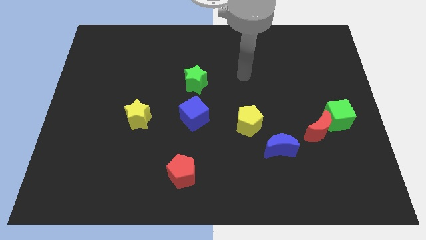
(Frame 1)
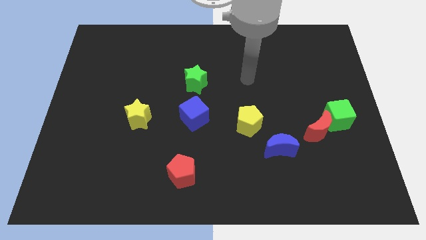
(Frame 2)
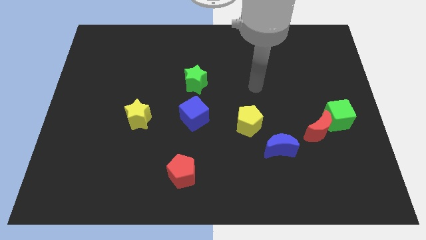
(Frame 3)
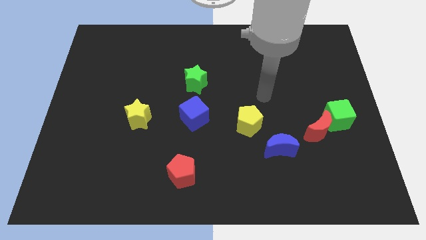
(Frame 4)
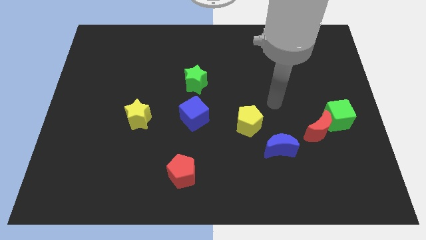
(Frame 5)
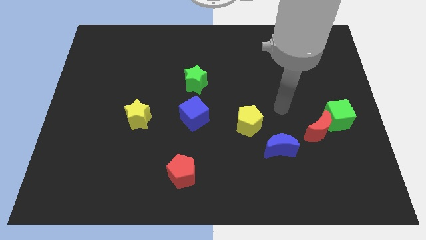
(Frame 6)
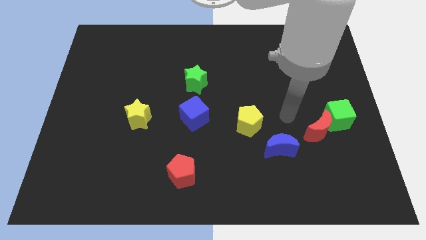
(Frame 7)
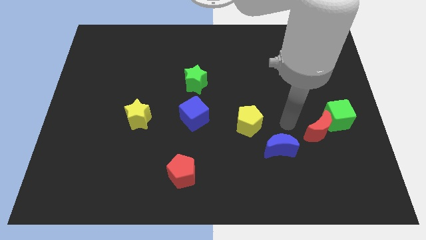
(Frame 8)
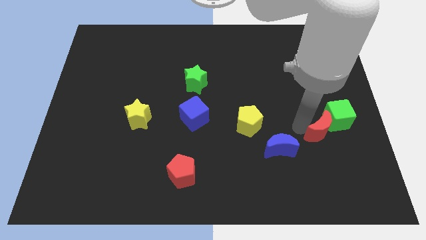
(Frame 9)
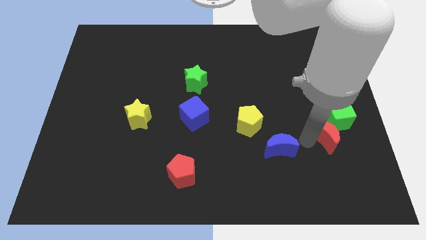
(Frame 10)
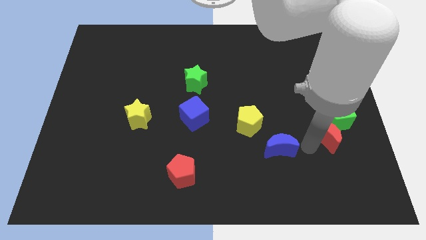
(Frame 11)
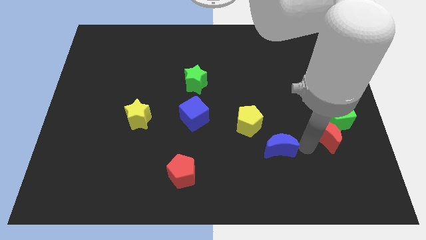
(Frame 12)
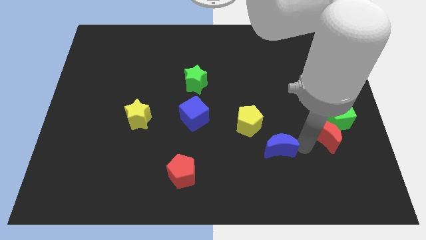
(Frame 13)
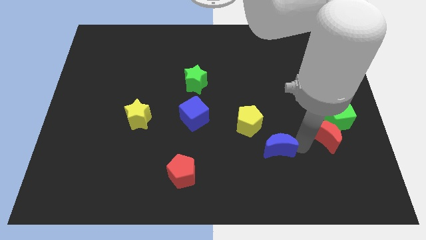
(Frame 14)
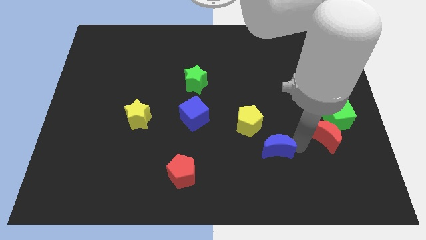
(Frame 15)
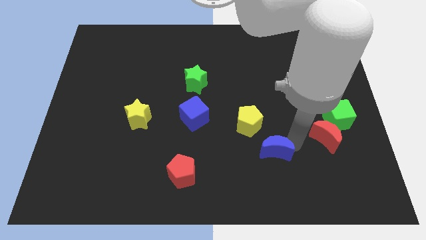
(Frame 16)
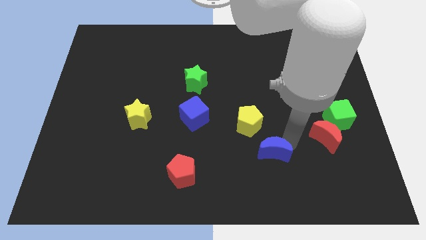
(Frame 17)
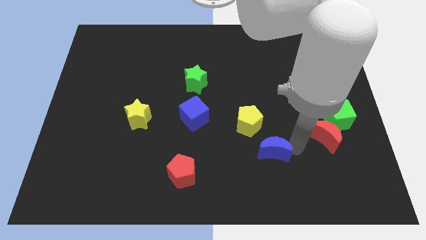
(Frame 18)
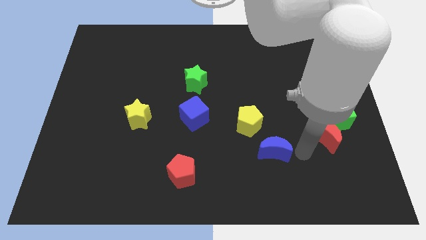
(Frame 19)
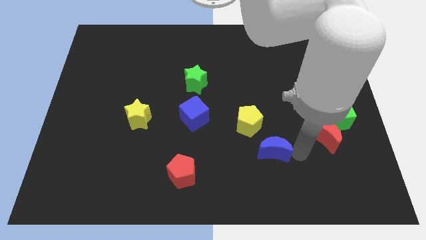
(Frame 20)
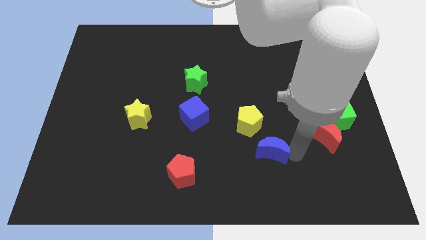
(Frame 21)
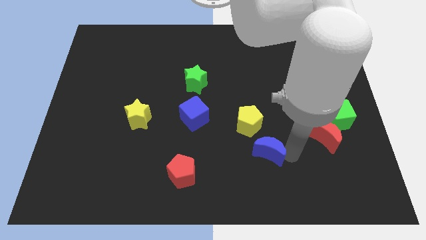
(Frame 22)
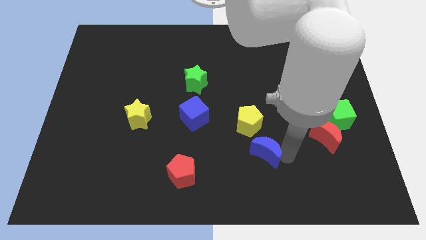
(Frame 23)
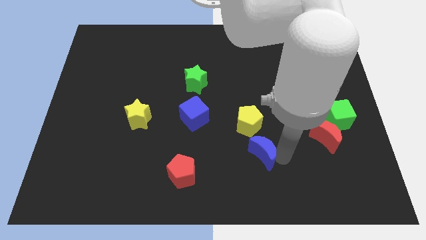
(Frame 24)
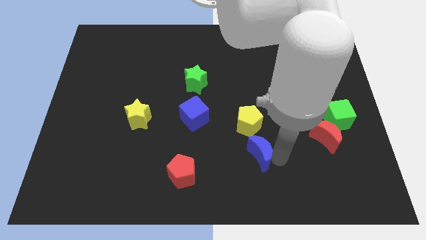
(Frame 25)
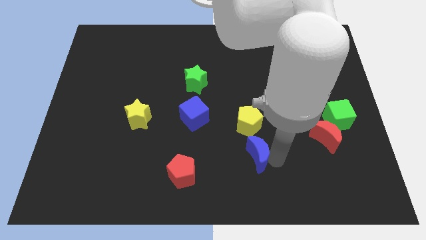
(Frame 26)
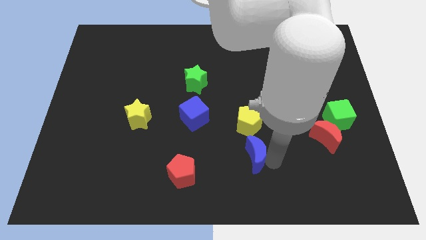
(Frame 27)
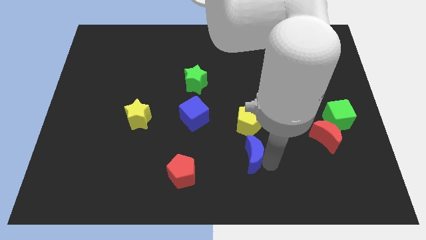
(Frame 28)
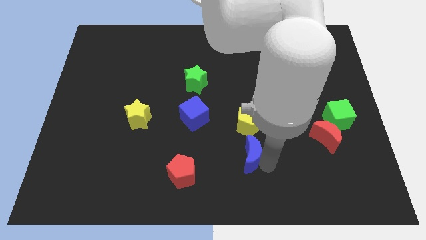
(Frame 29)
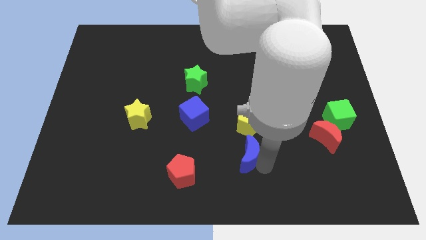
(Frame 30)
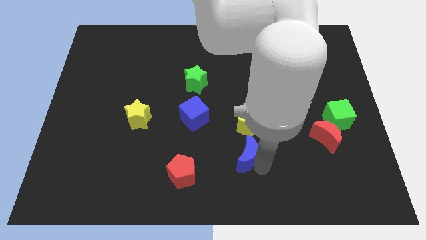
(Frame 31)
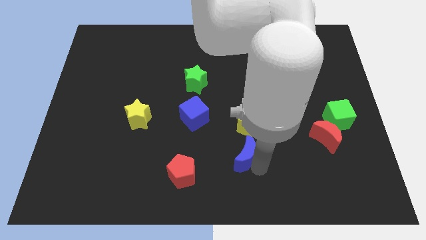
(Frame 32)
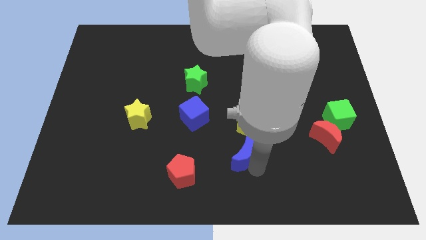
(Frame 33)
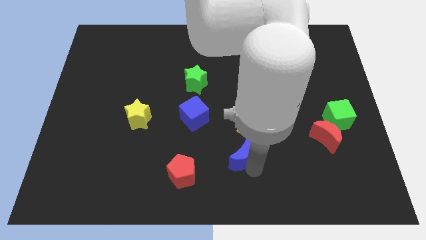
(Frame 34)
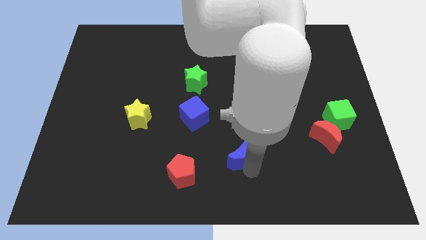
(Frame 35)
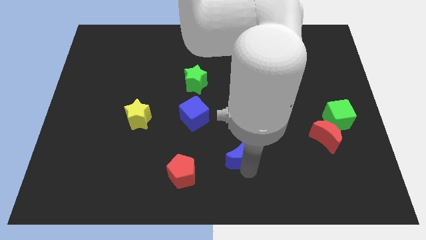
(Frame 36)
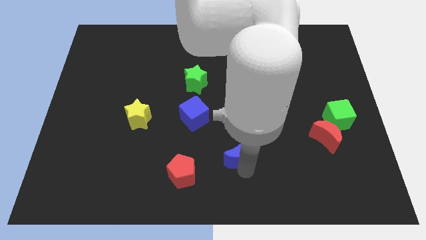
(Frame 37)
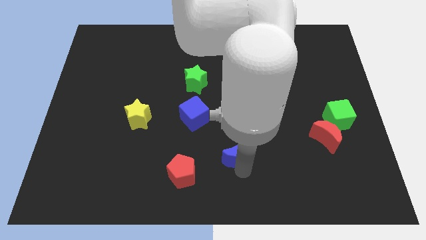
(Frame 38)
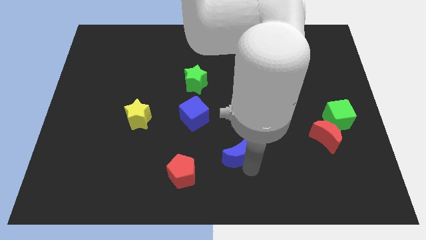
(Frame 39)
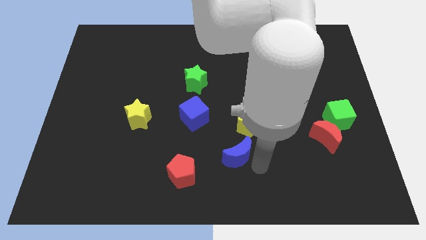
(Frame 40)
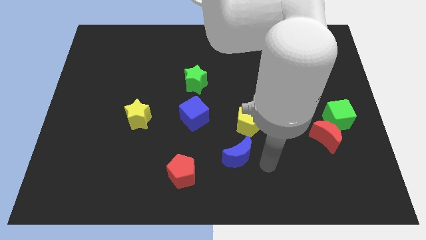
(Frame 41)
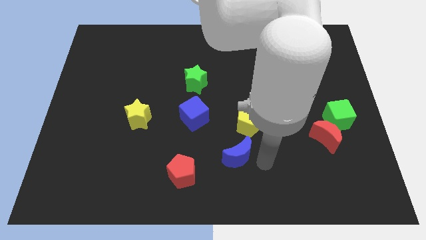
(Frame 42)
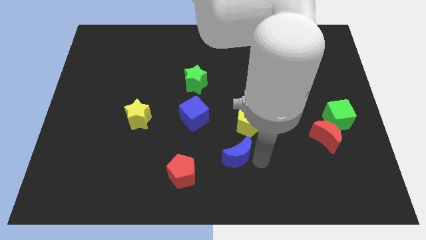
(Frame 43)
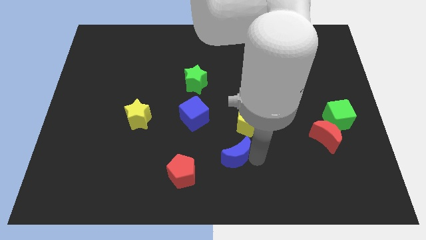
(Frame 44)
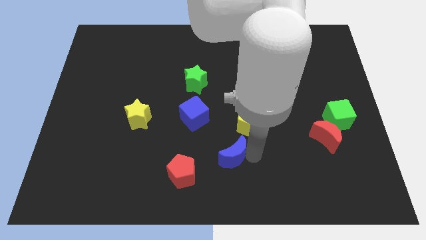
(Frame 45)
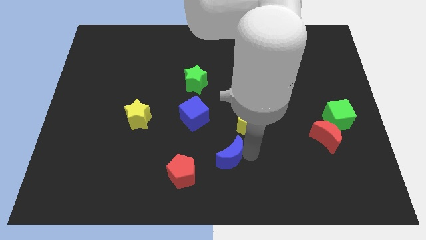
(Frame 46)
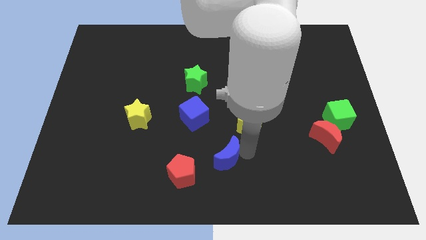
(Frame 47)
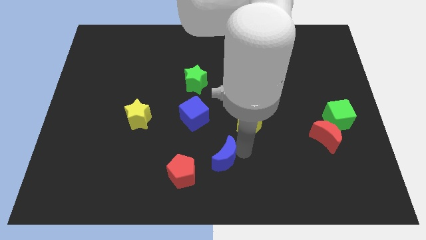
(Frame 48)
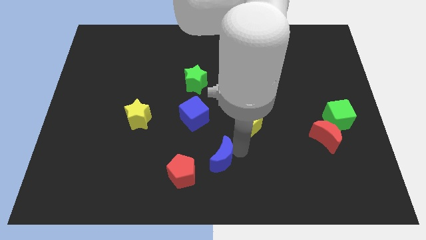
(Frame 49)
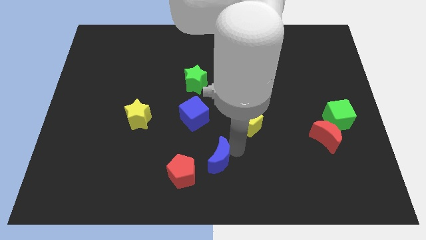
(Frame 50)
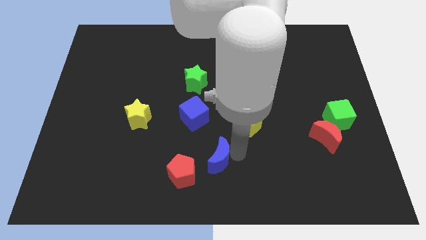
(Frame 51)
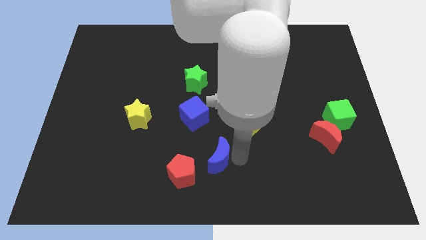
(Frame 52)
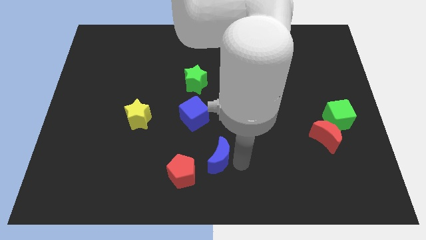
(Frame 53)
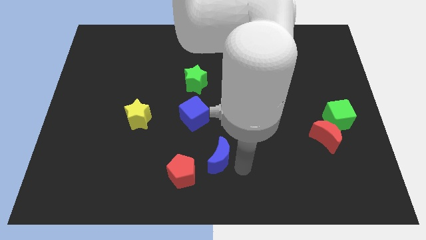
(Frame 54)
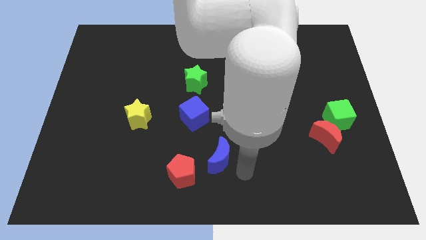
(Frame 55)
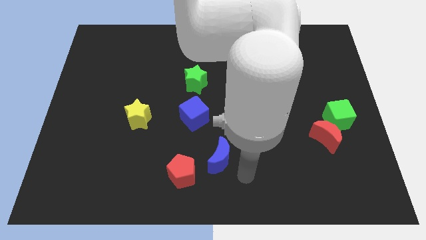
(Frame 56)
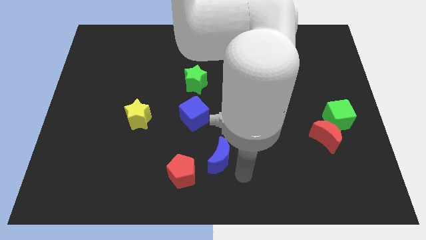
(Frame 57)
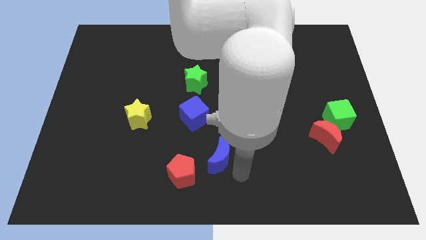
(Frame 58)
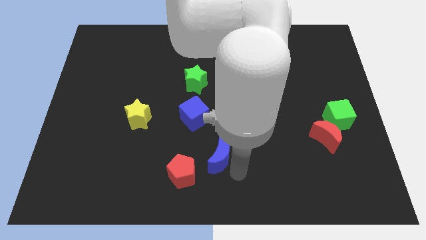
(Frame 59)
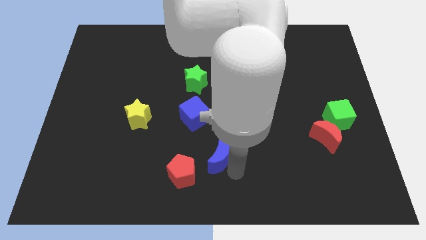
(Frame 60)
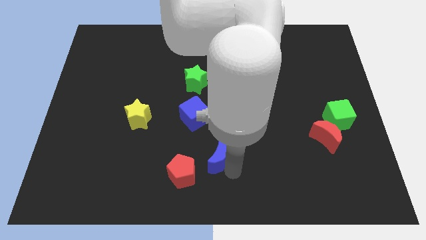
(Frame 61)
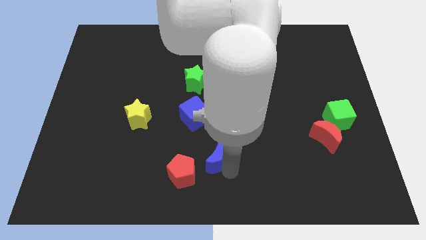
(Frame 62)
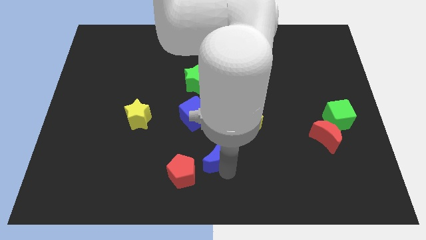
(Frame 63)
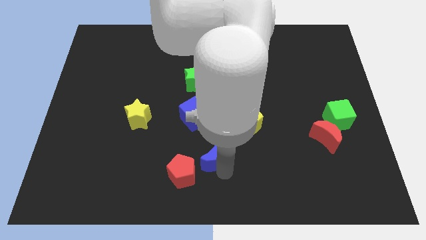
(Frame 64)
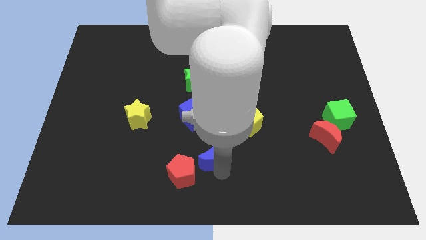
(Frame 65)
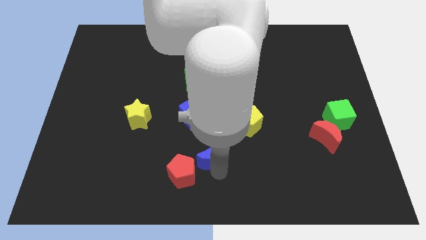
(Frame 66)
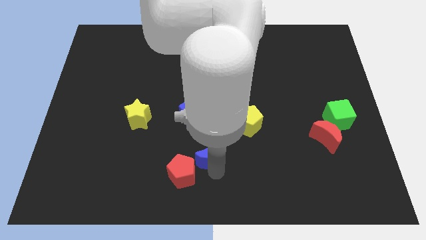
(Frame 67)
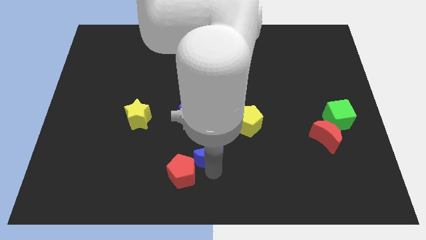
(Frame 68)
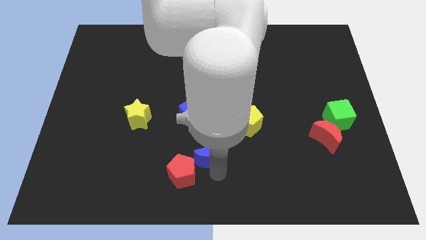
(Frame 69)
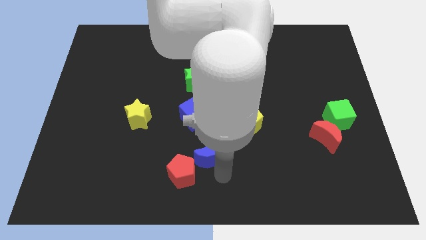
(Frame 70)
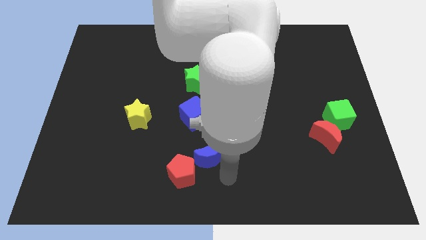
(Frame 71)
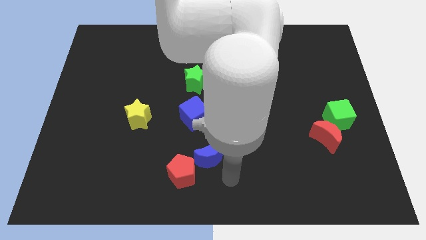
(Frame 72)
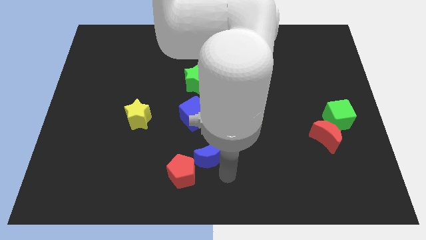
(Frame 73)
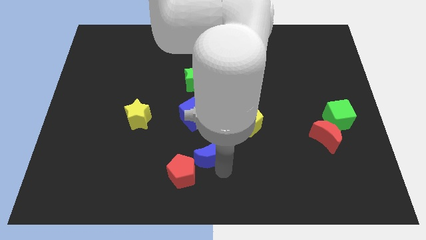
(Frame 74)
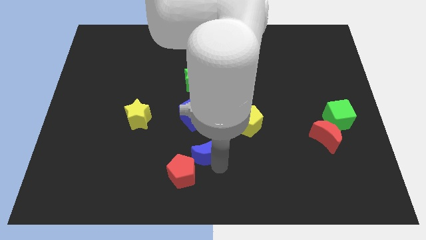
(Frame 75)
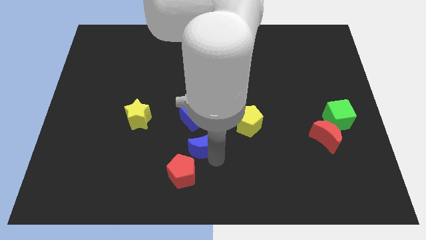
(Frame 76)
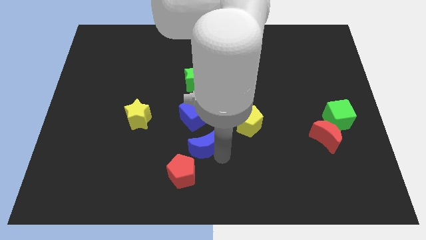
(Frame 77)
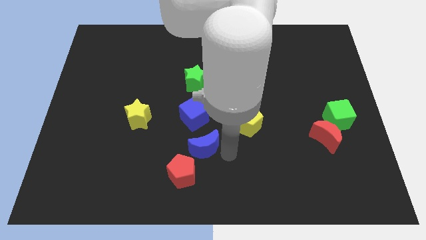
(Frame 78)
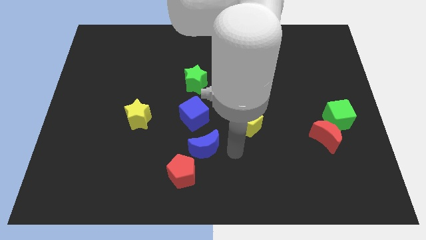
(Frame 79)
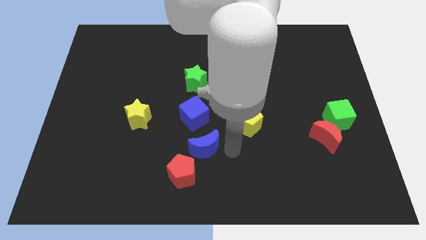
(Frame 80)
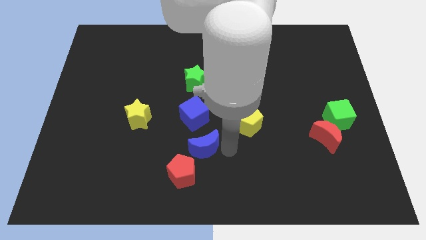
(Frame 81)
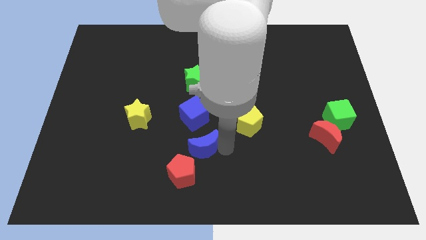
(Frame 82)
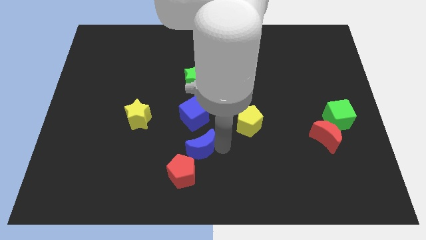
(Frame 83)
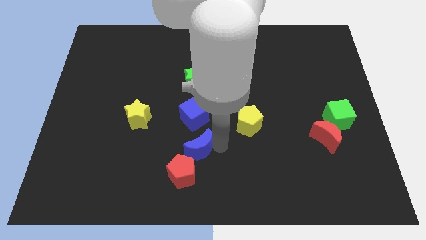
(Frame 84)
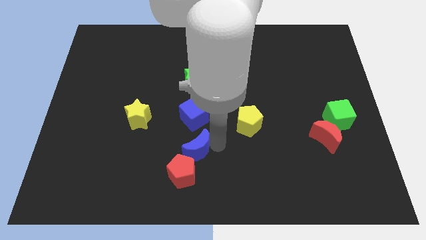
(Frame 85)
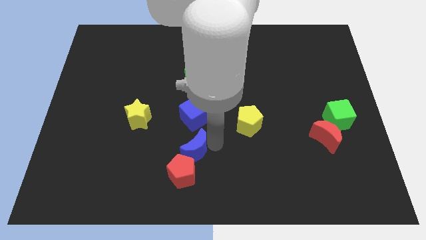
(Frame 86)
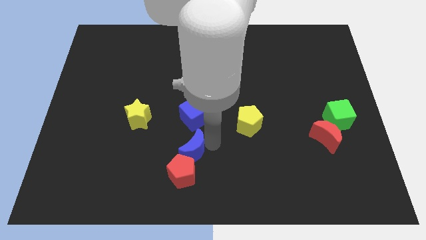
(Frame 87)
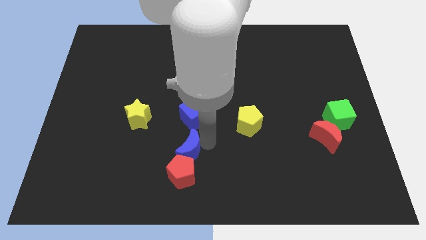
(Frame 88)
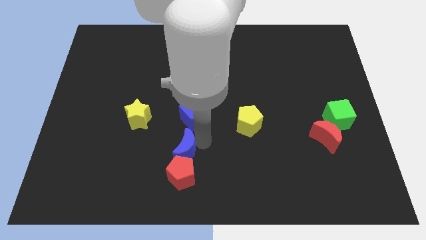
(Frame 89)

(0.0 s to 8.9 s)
push the blue moon left
